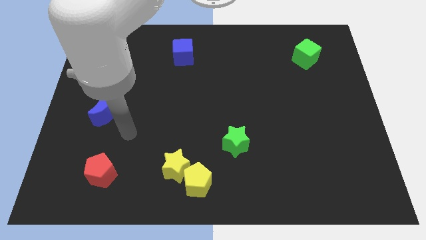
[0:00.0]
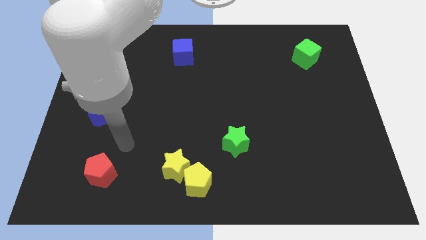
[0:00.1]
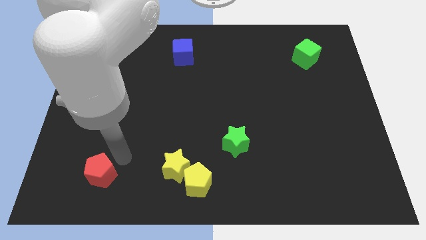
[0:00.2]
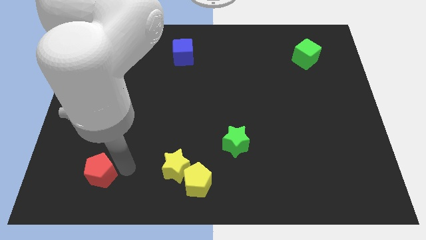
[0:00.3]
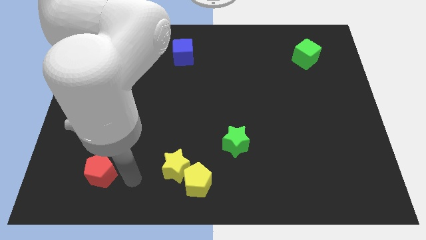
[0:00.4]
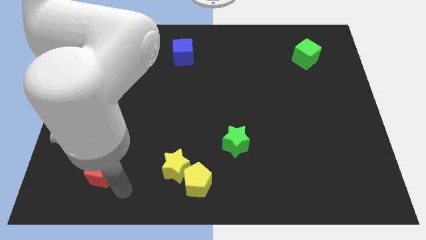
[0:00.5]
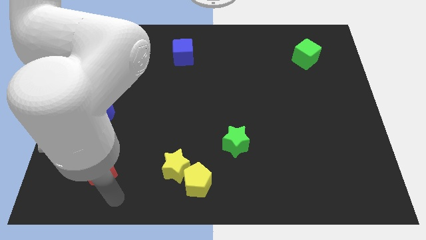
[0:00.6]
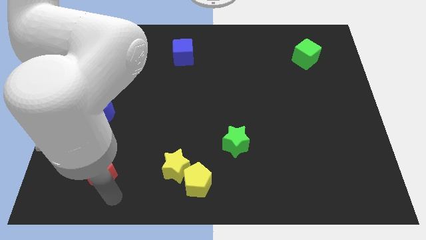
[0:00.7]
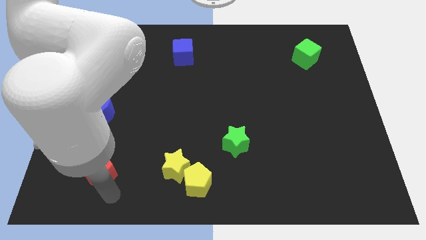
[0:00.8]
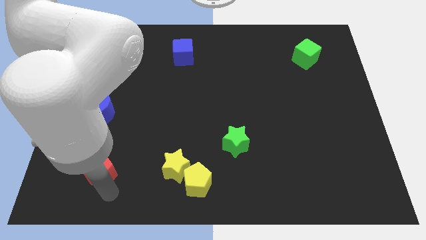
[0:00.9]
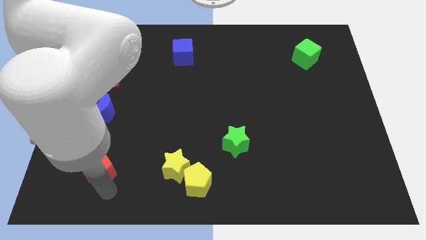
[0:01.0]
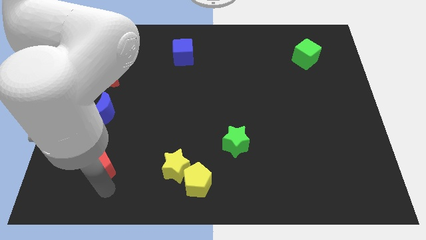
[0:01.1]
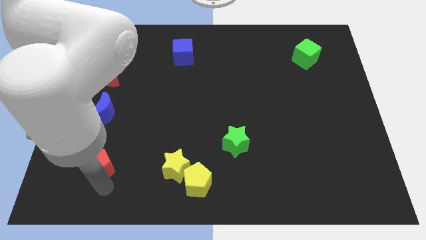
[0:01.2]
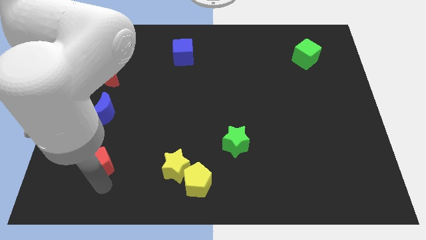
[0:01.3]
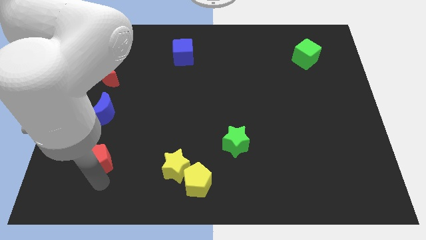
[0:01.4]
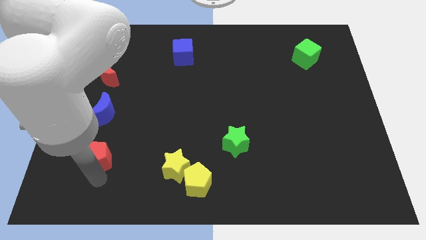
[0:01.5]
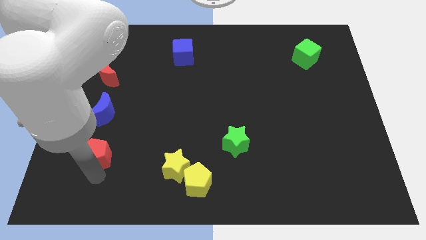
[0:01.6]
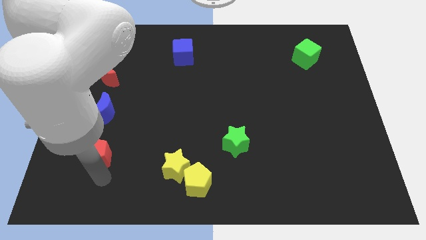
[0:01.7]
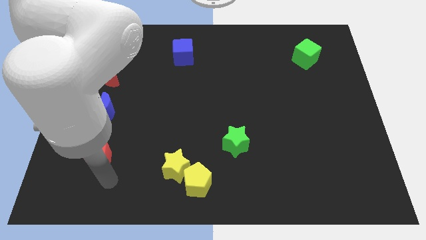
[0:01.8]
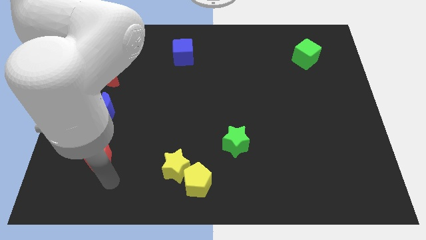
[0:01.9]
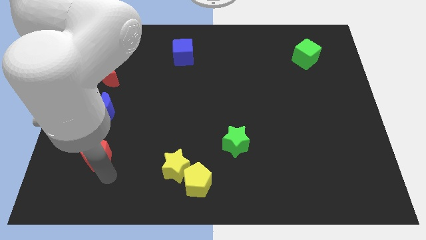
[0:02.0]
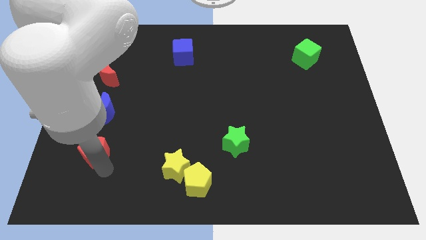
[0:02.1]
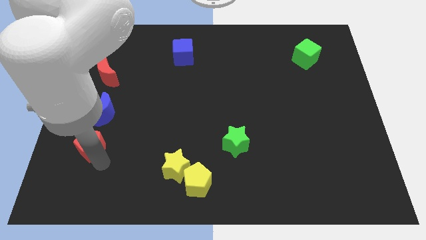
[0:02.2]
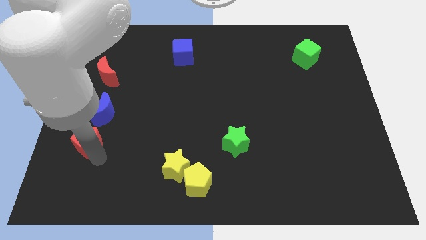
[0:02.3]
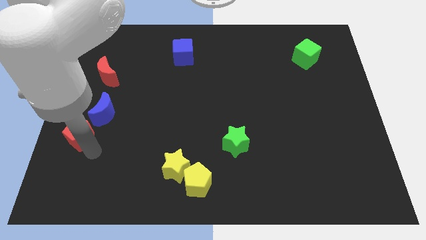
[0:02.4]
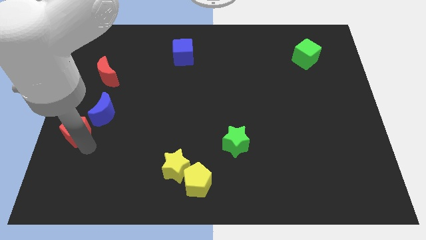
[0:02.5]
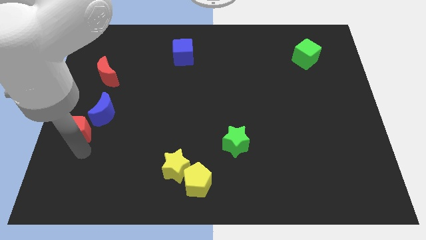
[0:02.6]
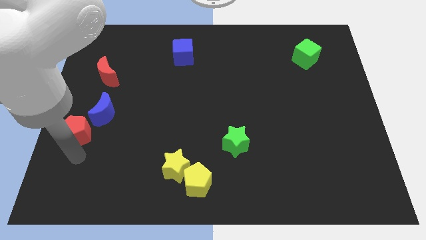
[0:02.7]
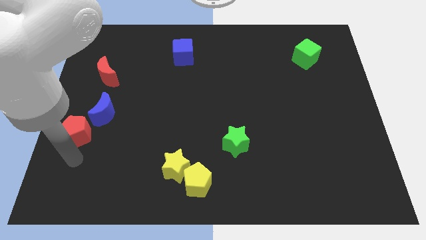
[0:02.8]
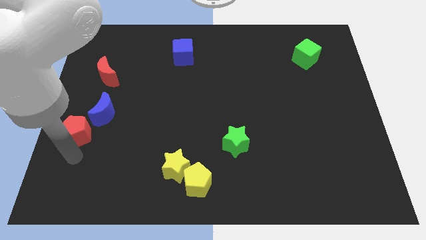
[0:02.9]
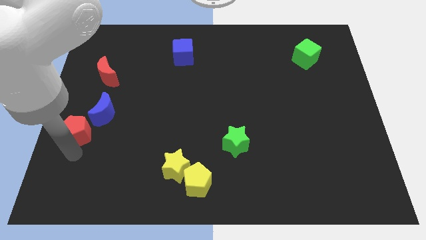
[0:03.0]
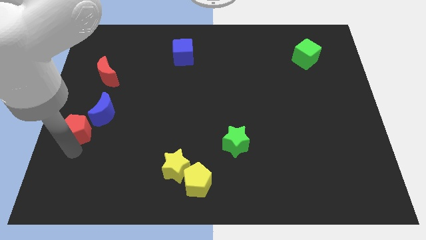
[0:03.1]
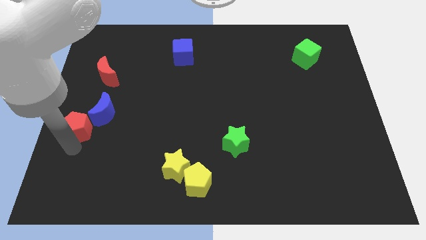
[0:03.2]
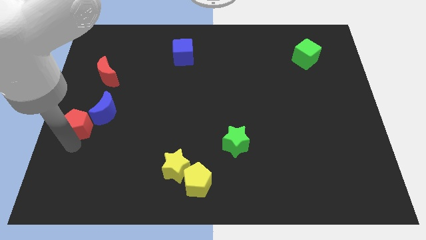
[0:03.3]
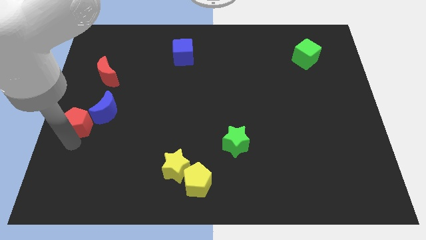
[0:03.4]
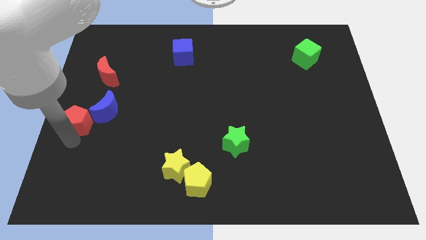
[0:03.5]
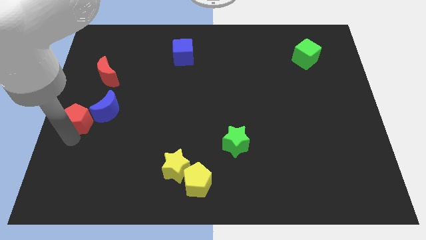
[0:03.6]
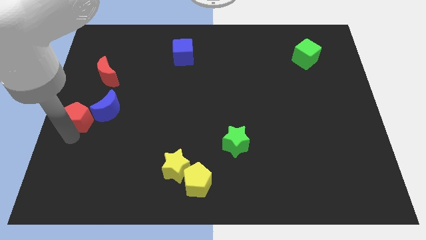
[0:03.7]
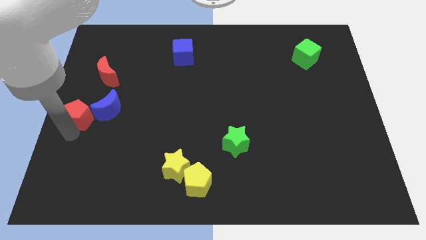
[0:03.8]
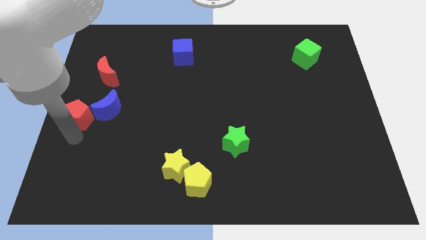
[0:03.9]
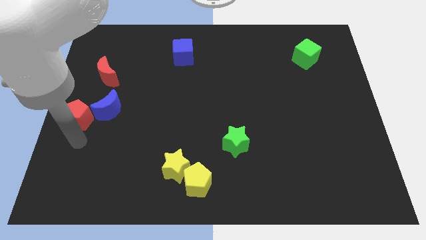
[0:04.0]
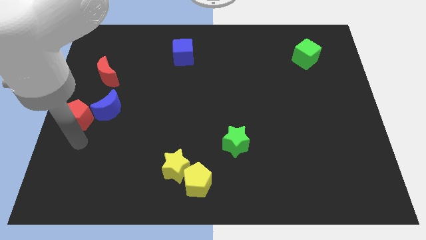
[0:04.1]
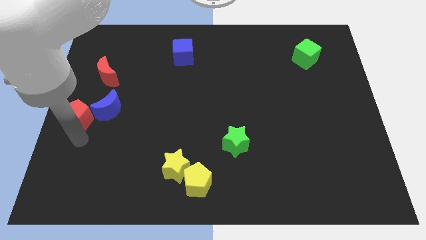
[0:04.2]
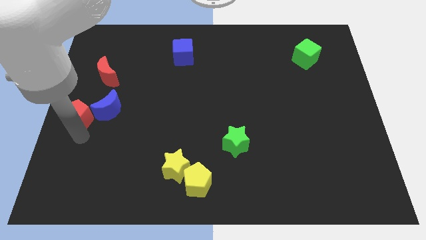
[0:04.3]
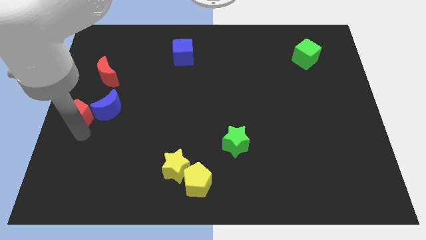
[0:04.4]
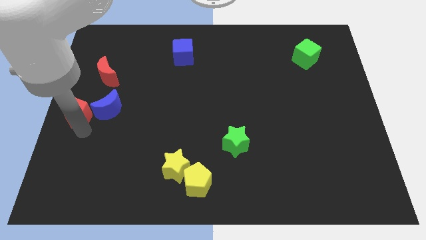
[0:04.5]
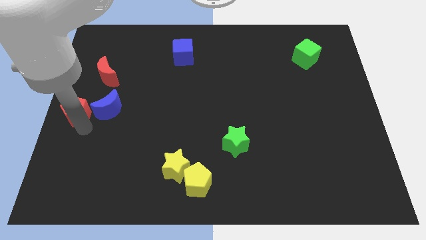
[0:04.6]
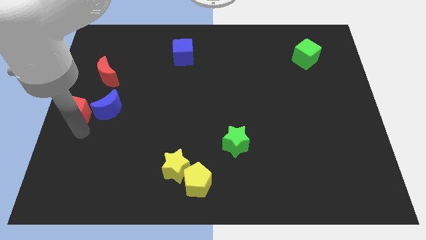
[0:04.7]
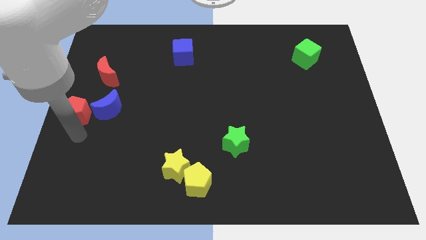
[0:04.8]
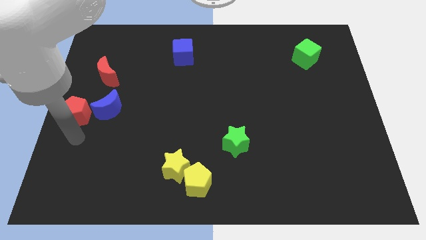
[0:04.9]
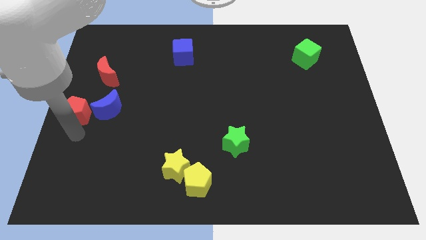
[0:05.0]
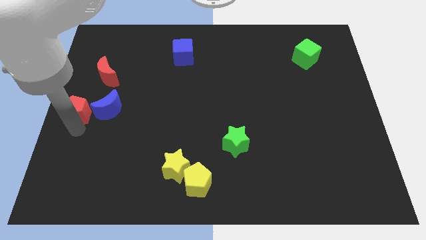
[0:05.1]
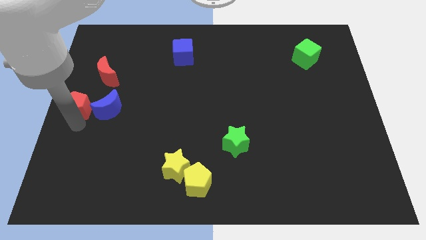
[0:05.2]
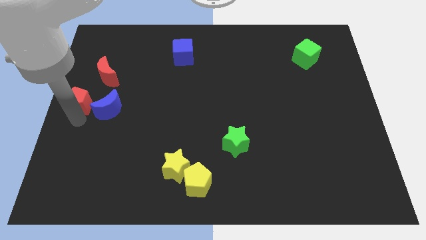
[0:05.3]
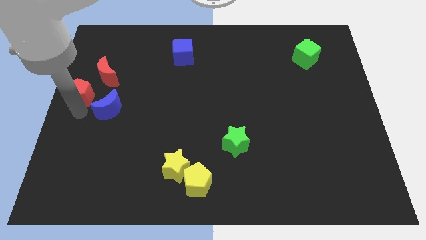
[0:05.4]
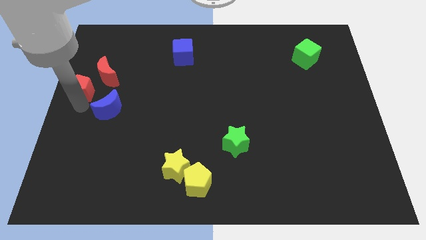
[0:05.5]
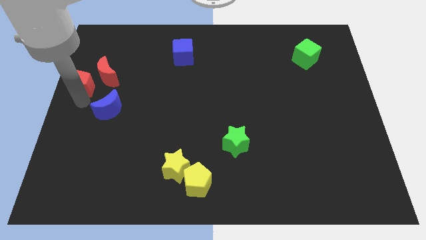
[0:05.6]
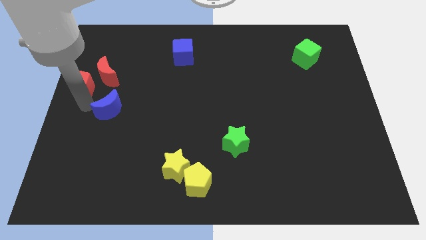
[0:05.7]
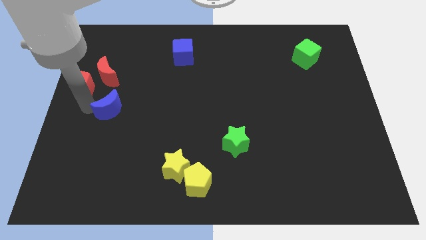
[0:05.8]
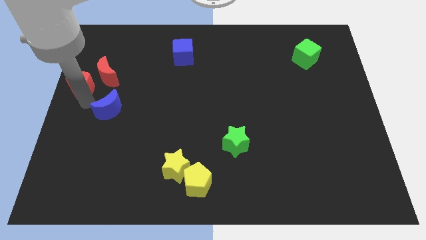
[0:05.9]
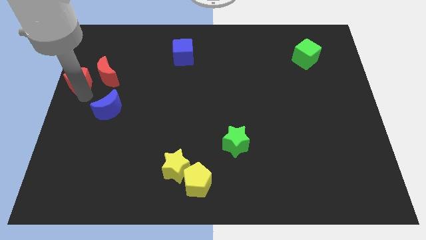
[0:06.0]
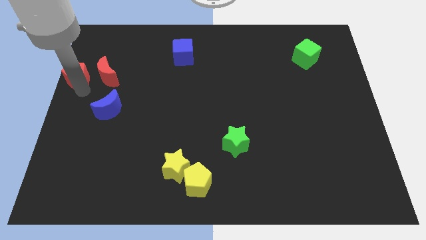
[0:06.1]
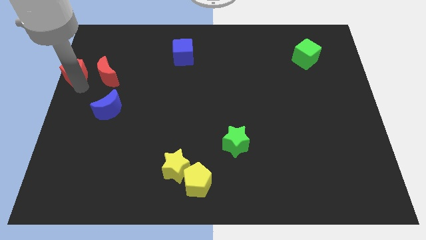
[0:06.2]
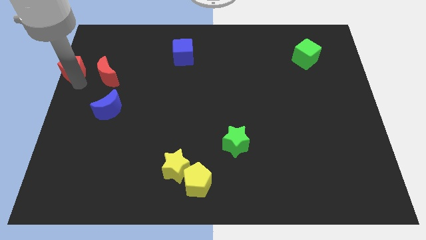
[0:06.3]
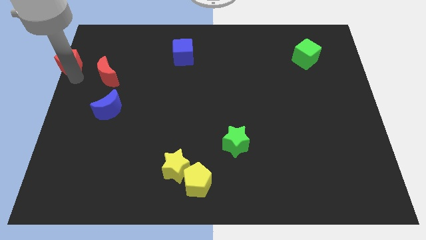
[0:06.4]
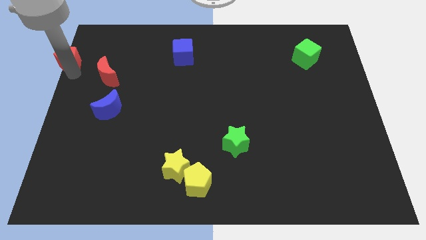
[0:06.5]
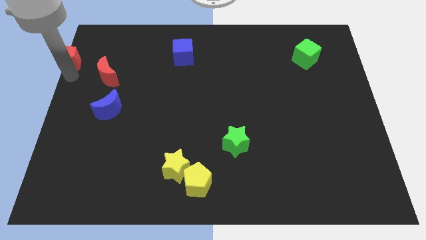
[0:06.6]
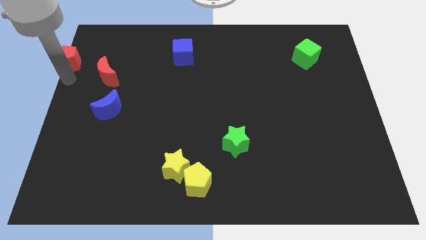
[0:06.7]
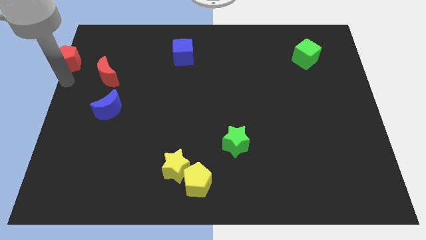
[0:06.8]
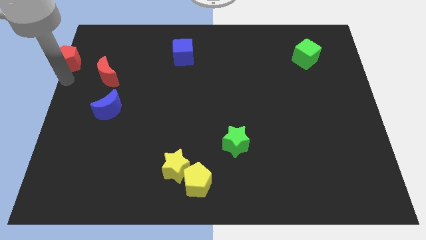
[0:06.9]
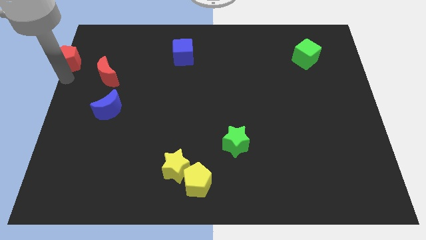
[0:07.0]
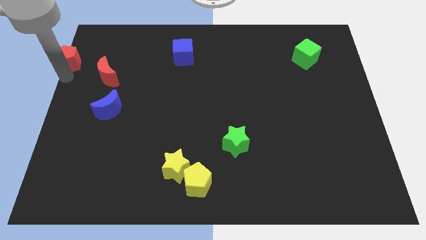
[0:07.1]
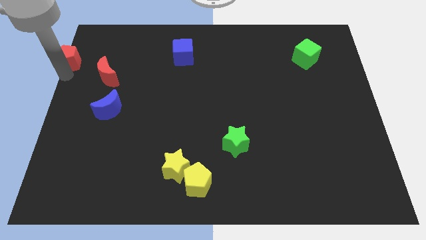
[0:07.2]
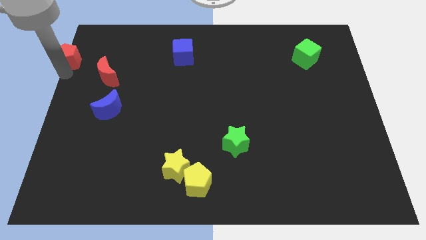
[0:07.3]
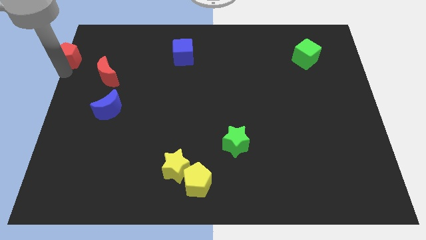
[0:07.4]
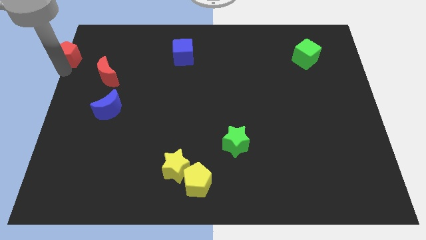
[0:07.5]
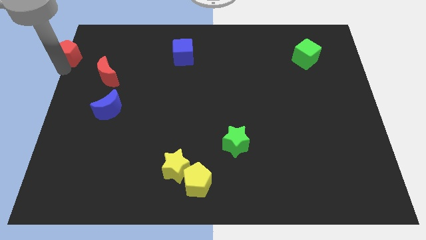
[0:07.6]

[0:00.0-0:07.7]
push the red pentagon to the top left of the board
